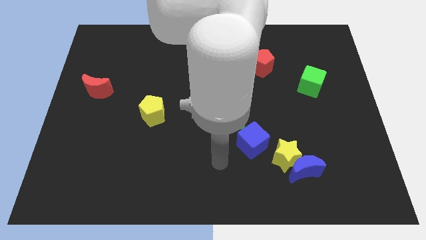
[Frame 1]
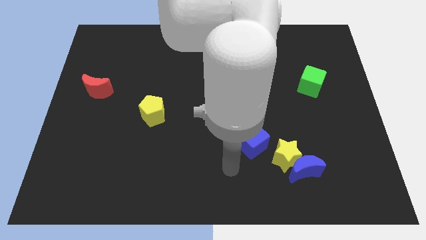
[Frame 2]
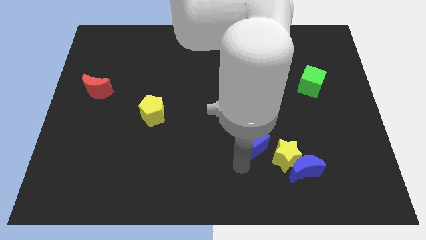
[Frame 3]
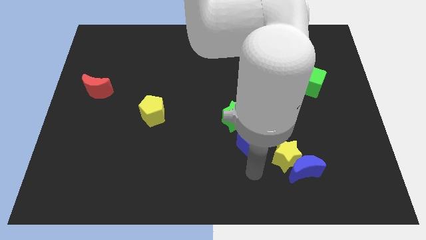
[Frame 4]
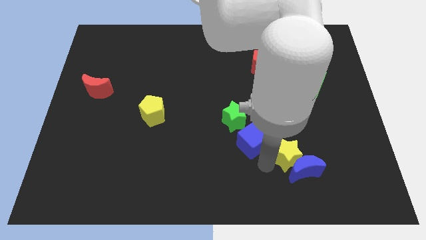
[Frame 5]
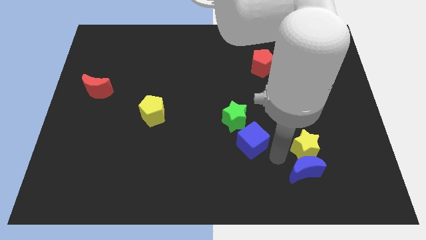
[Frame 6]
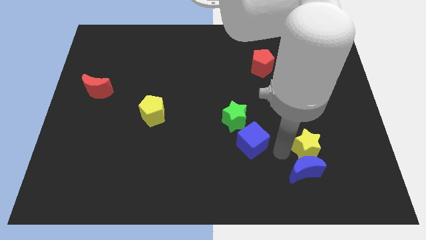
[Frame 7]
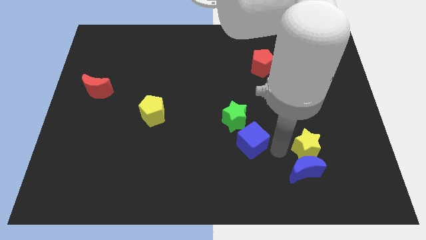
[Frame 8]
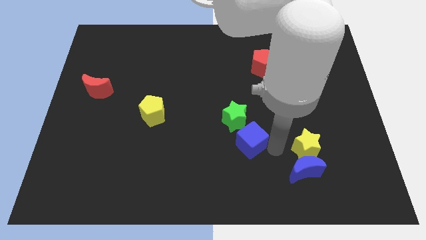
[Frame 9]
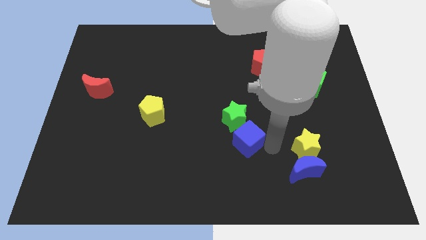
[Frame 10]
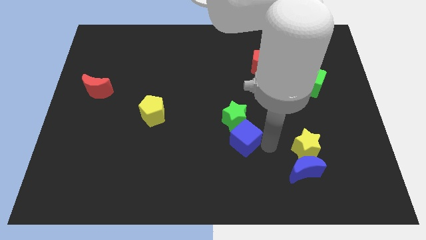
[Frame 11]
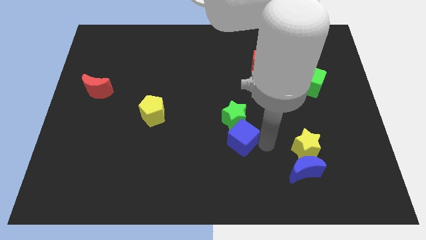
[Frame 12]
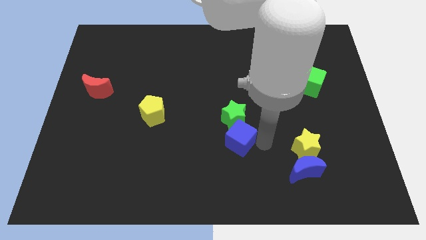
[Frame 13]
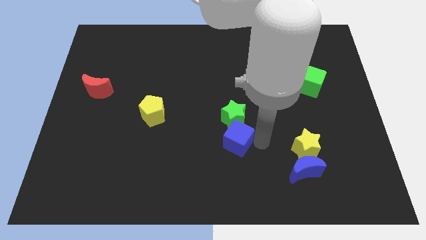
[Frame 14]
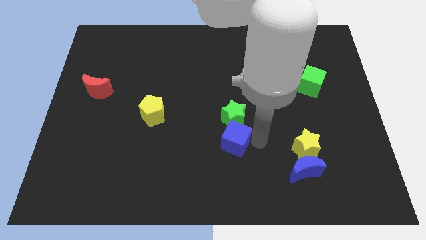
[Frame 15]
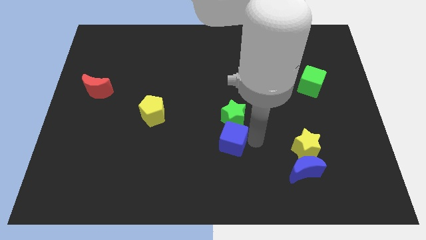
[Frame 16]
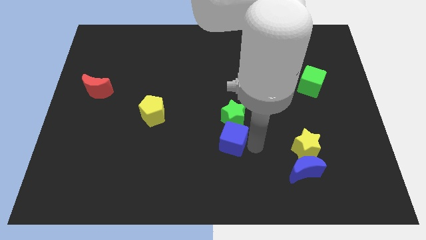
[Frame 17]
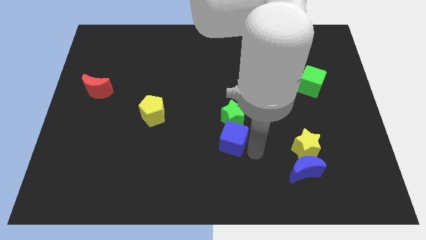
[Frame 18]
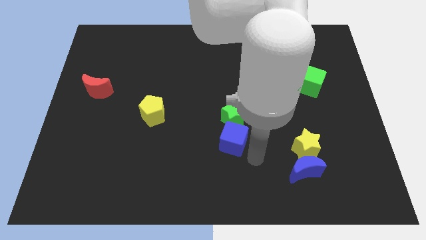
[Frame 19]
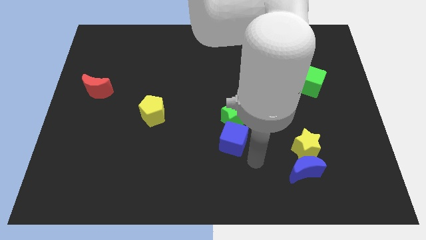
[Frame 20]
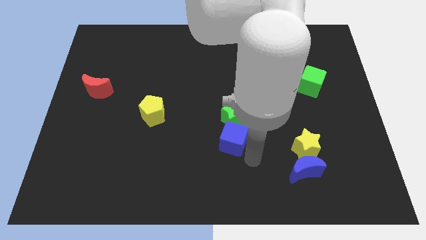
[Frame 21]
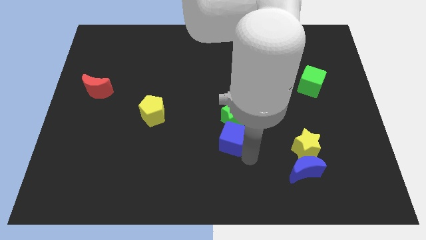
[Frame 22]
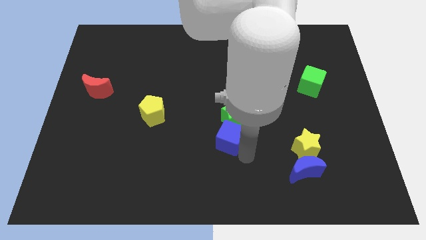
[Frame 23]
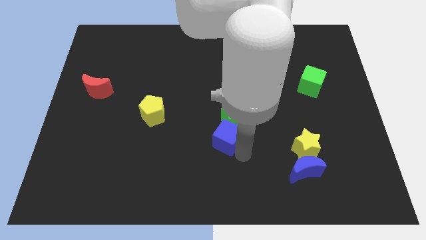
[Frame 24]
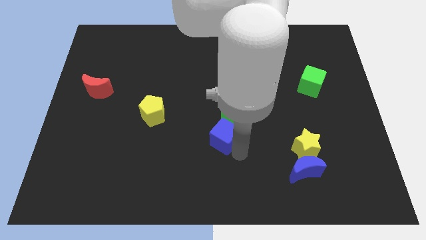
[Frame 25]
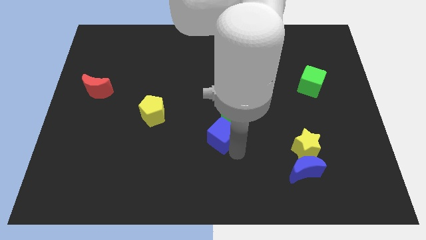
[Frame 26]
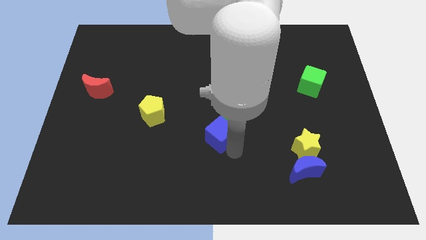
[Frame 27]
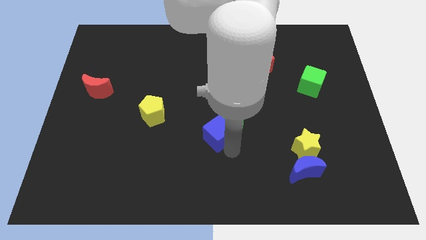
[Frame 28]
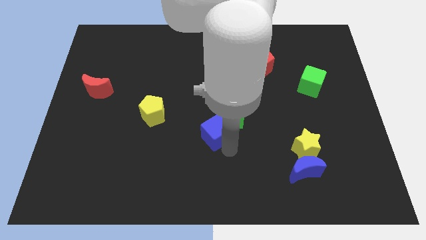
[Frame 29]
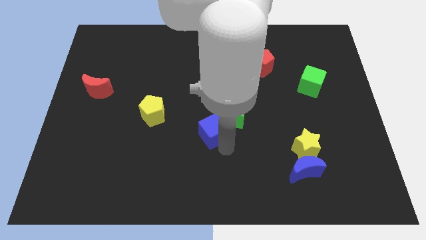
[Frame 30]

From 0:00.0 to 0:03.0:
slightly push the blue cube up and left

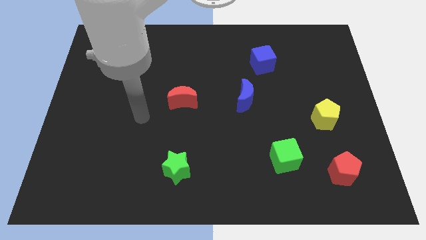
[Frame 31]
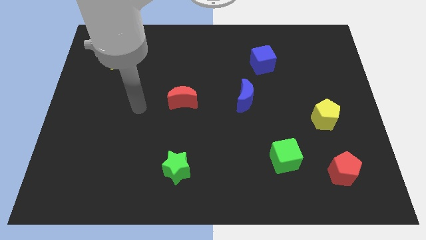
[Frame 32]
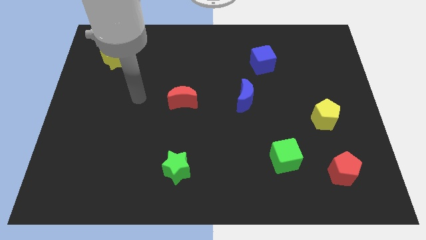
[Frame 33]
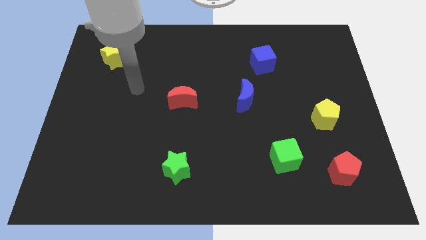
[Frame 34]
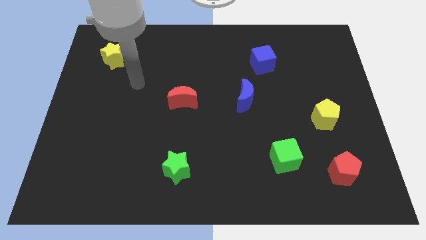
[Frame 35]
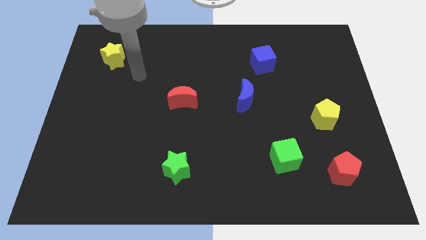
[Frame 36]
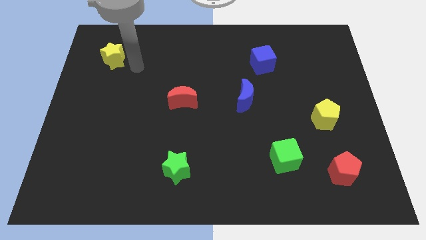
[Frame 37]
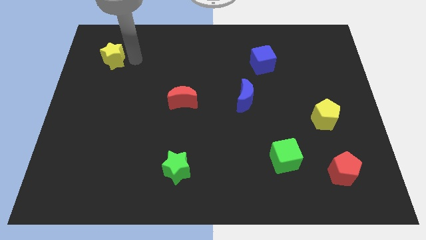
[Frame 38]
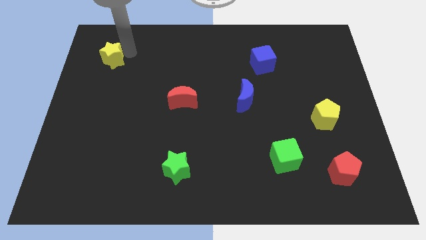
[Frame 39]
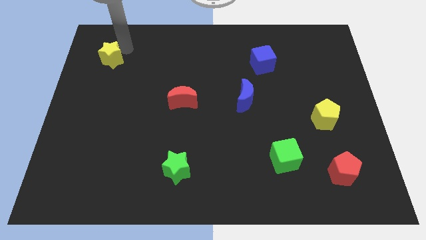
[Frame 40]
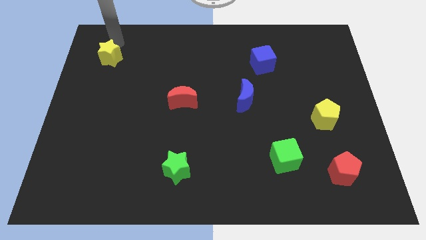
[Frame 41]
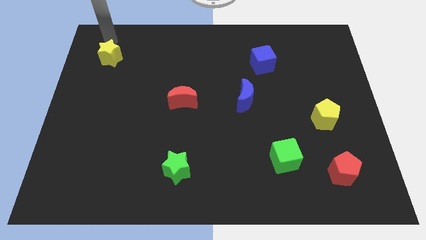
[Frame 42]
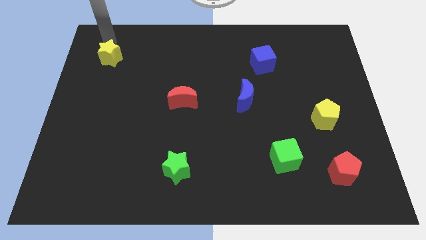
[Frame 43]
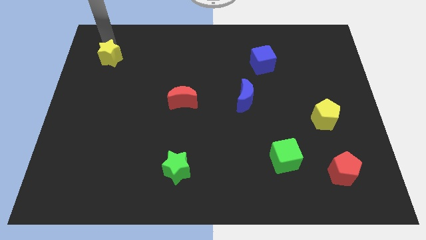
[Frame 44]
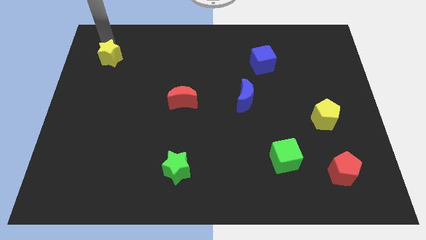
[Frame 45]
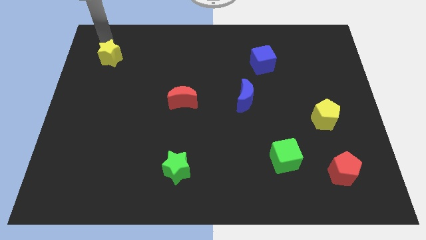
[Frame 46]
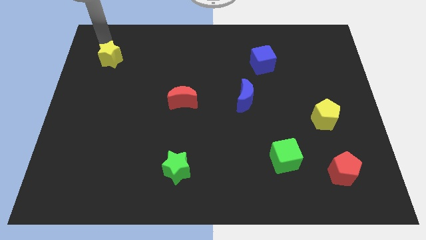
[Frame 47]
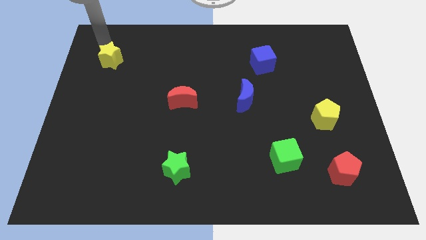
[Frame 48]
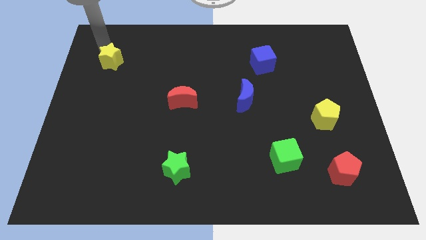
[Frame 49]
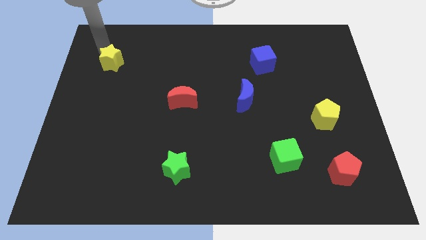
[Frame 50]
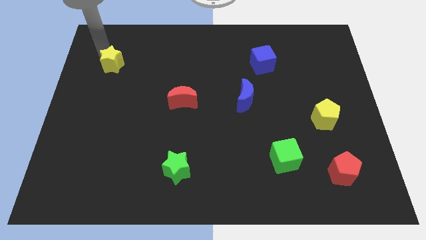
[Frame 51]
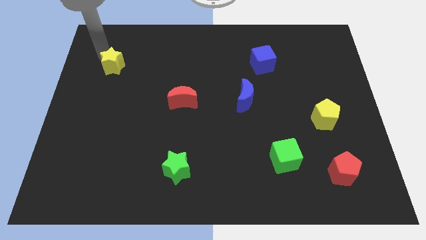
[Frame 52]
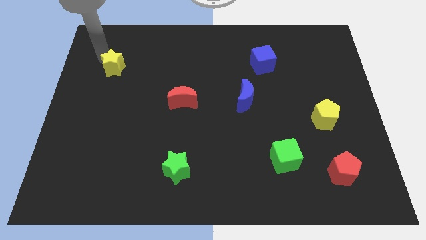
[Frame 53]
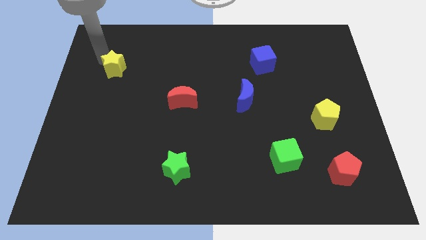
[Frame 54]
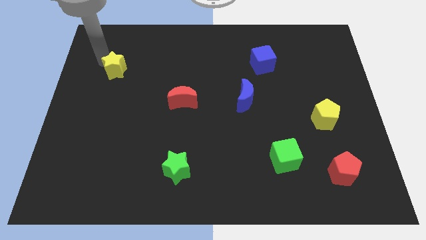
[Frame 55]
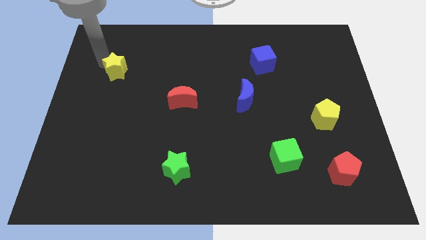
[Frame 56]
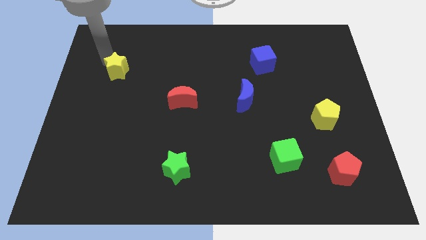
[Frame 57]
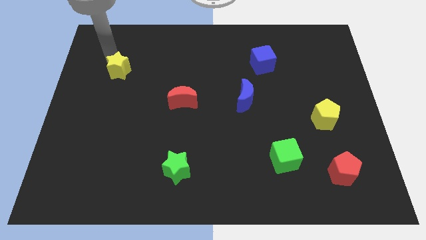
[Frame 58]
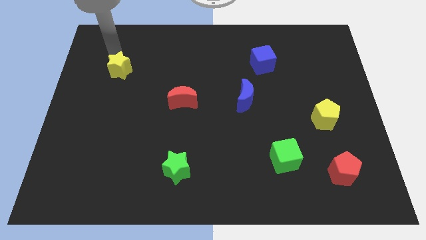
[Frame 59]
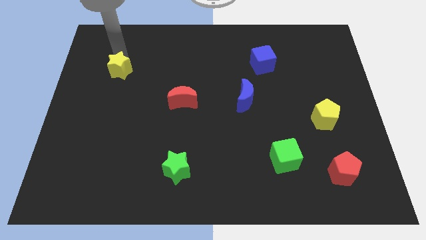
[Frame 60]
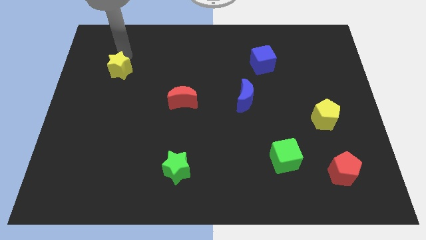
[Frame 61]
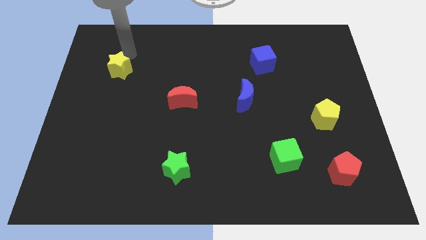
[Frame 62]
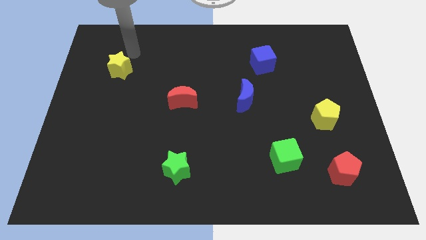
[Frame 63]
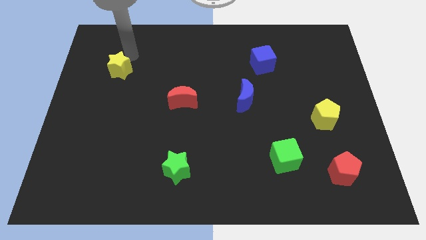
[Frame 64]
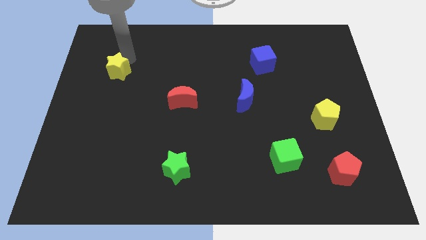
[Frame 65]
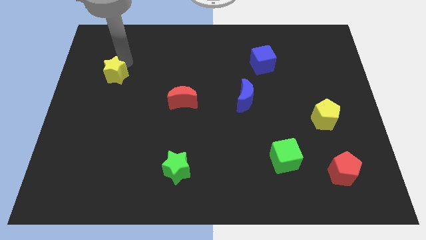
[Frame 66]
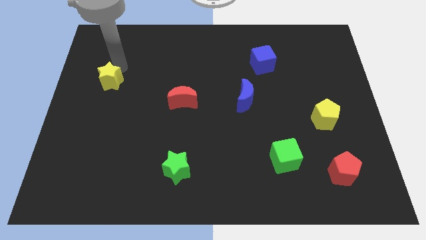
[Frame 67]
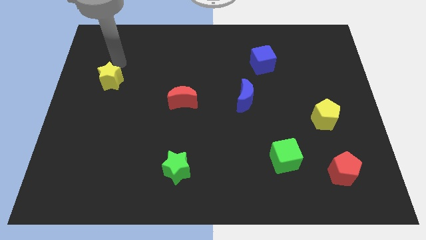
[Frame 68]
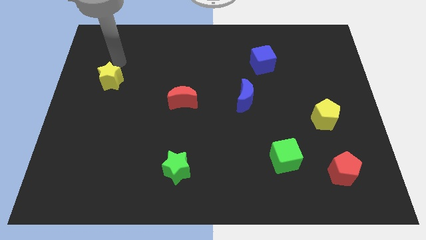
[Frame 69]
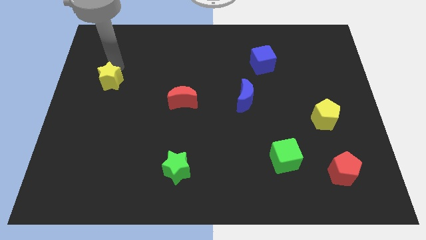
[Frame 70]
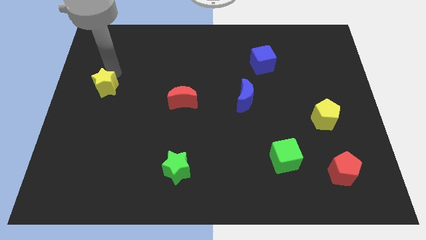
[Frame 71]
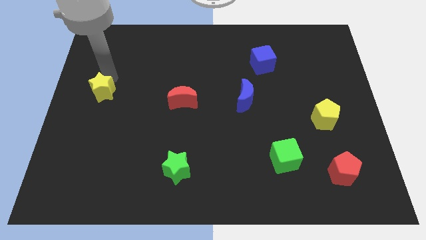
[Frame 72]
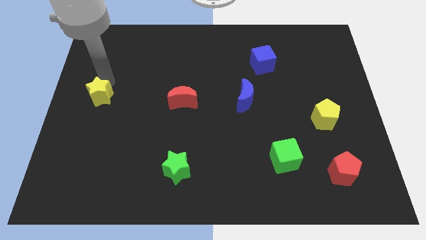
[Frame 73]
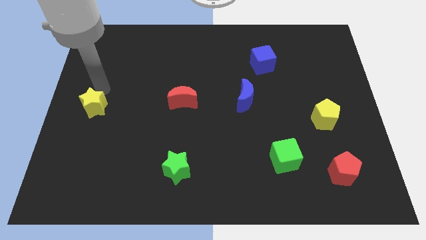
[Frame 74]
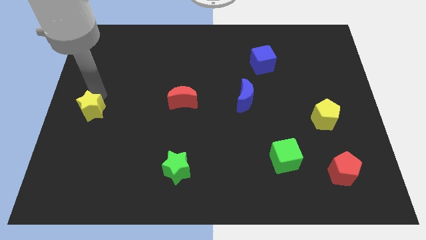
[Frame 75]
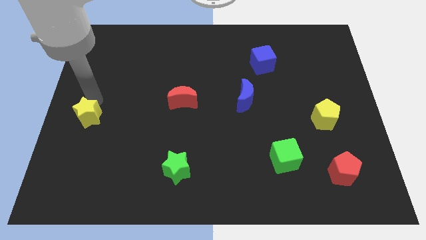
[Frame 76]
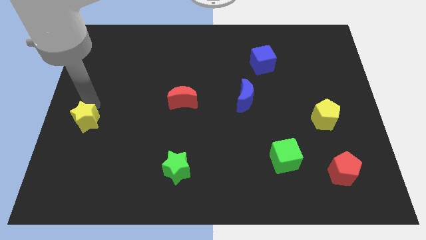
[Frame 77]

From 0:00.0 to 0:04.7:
slide the yellow star downwards
